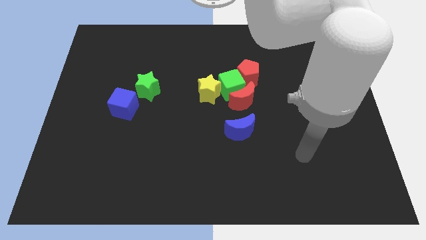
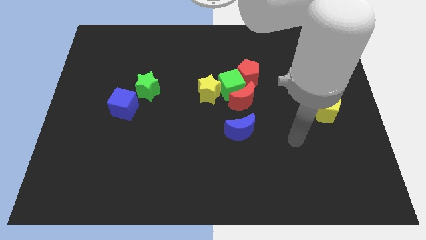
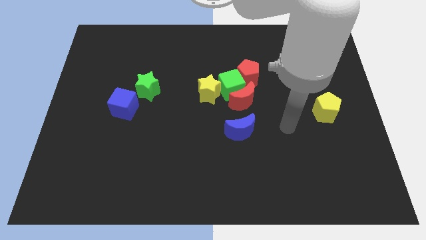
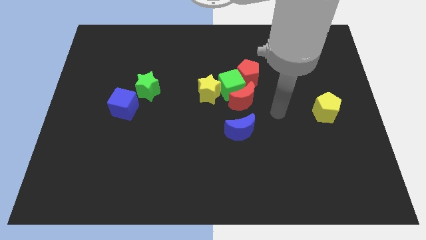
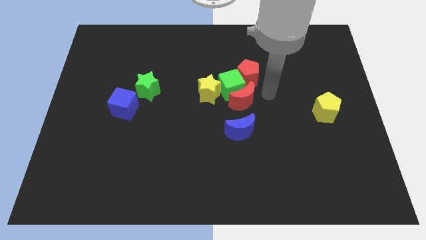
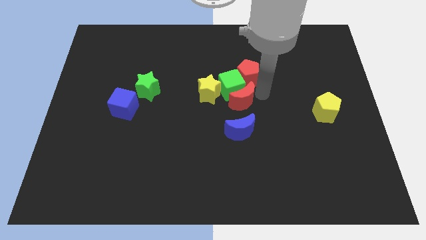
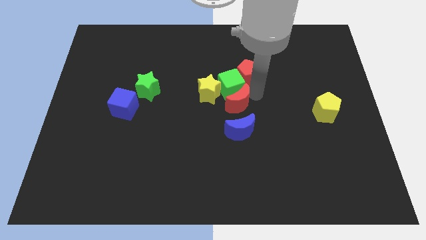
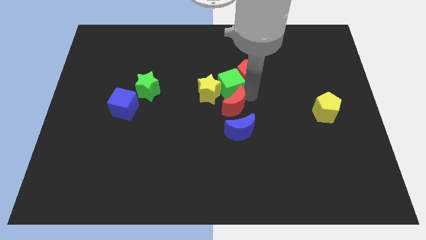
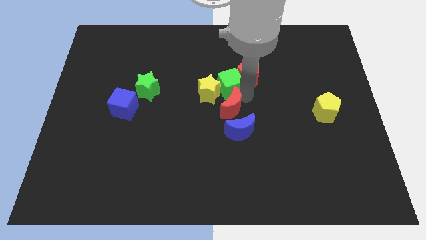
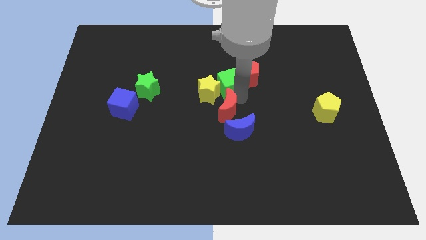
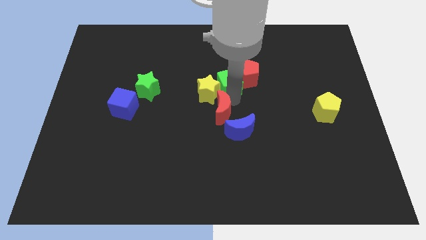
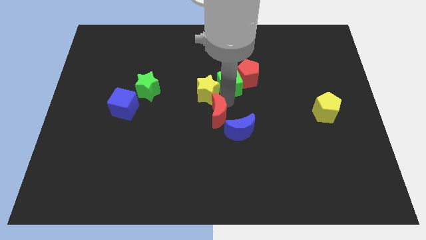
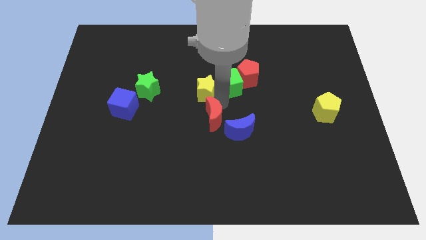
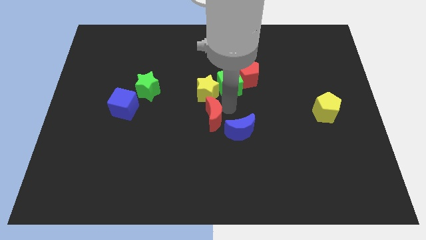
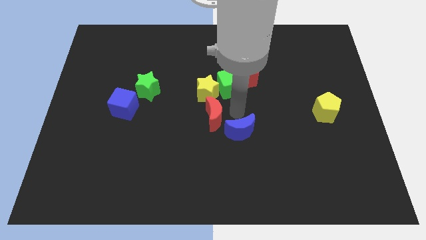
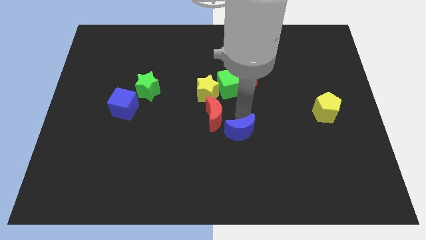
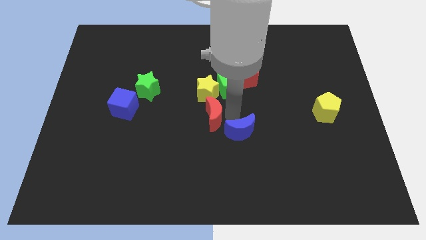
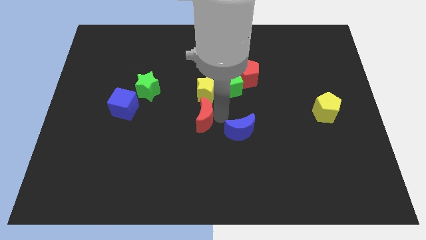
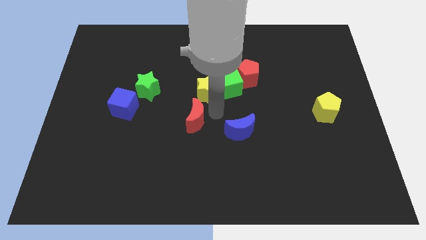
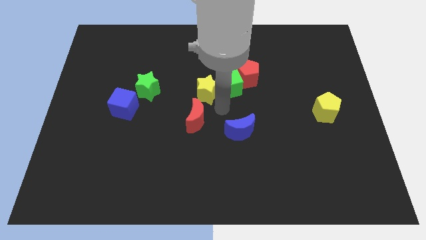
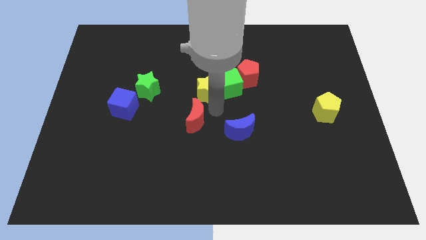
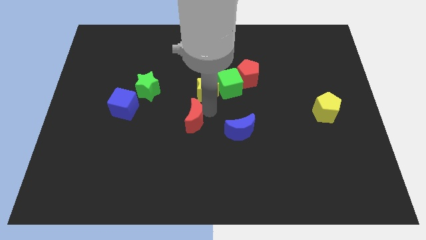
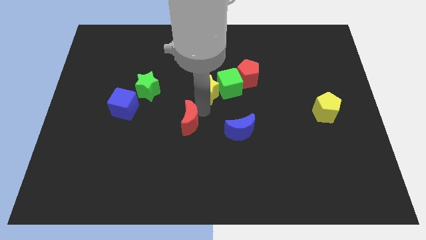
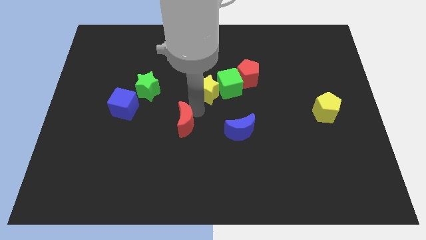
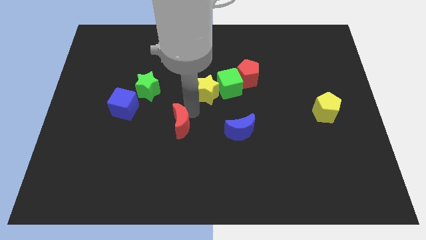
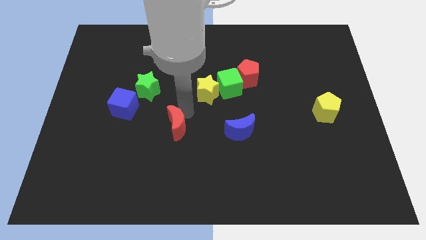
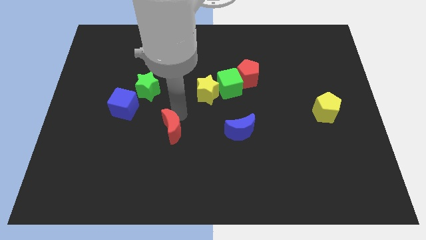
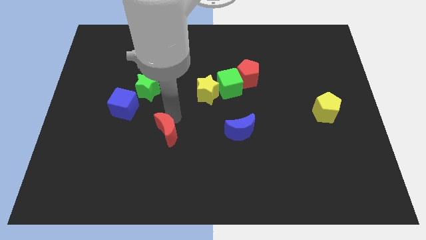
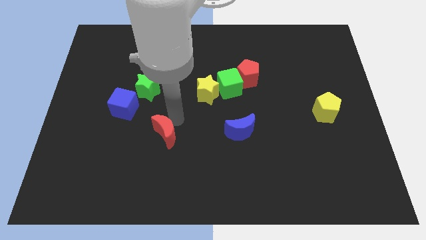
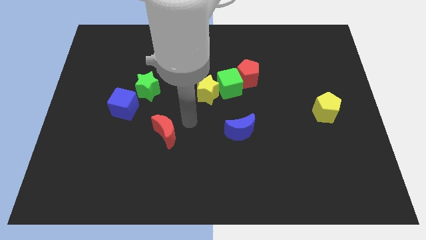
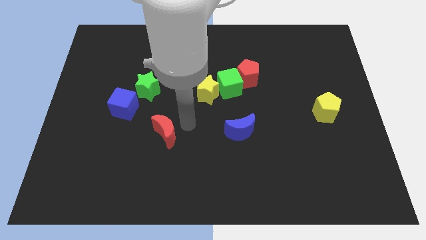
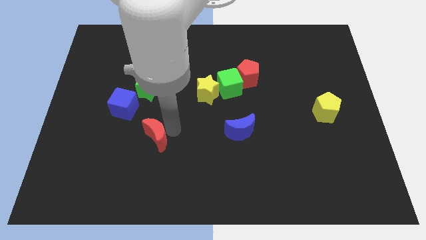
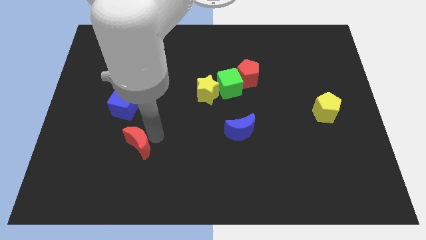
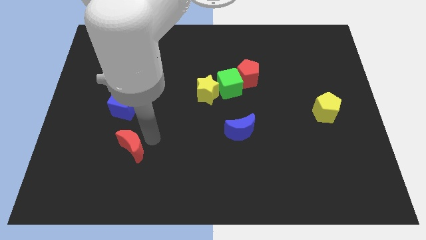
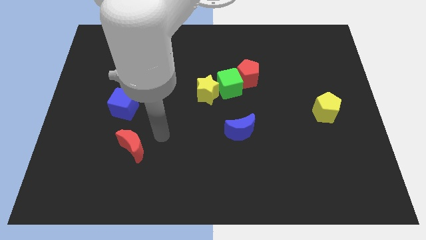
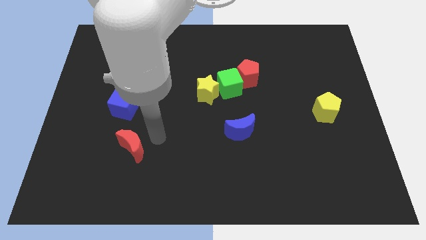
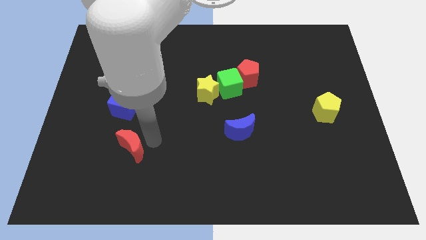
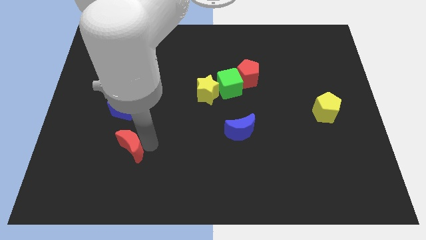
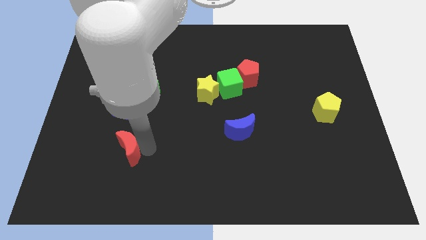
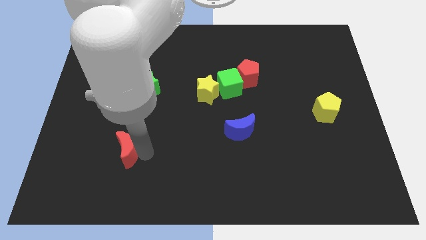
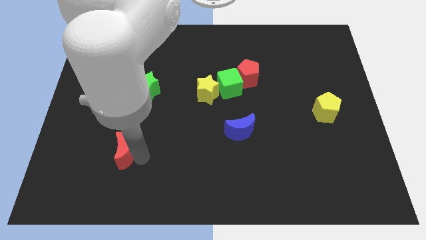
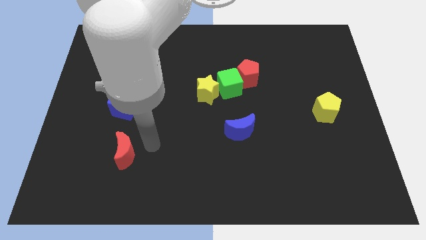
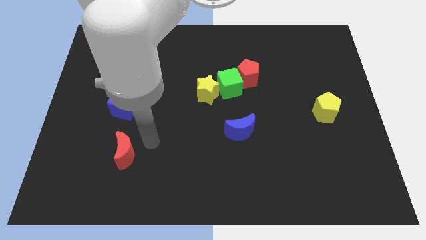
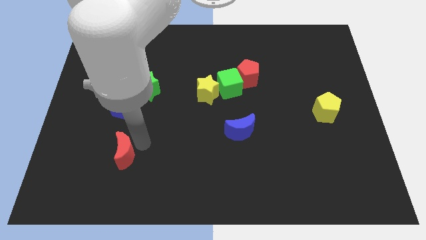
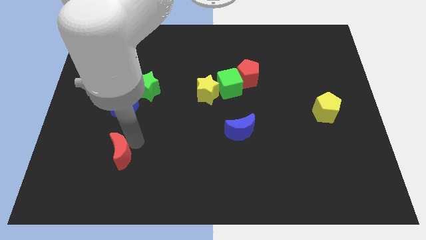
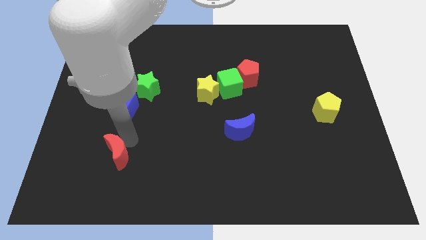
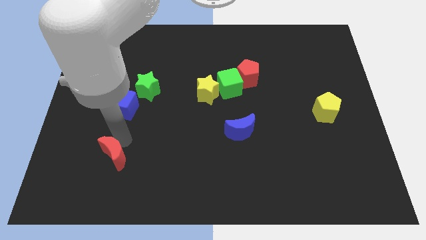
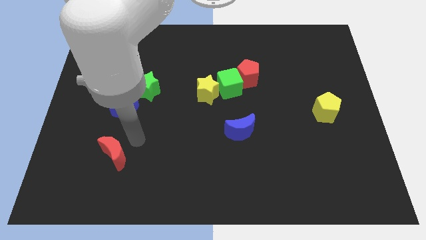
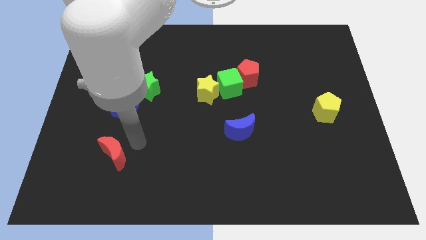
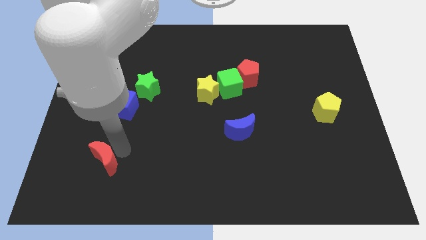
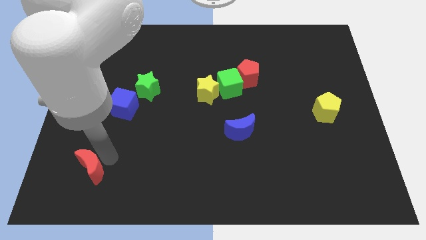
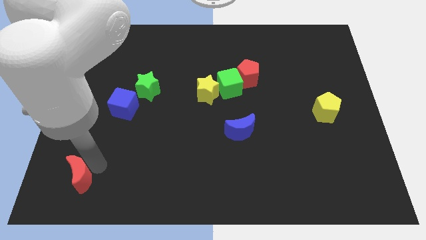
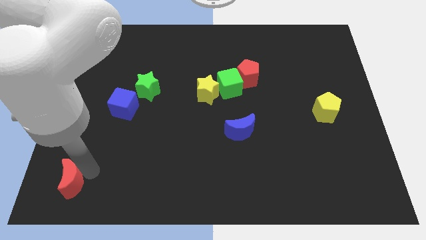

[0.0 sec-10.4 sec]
put the red moon to the lower left corner

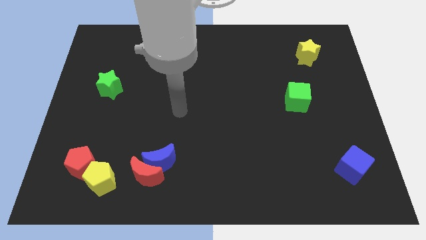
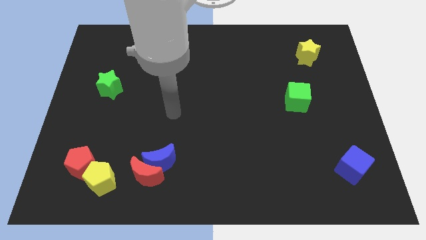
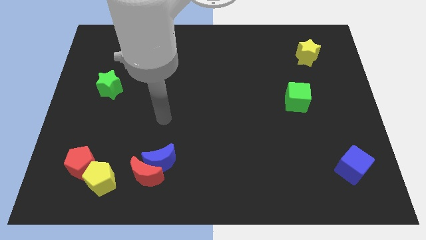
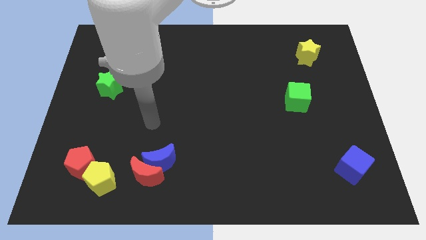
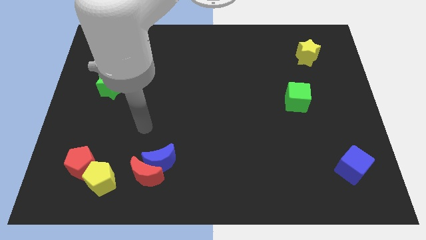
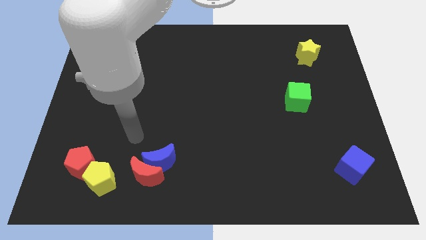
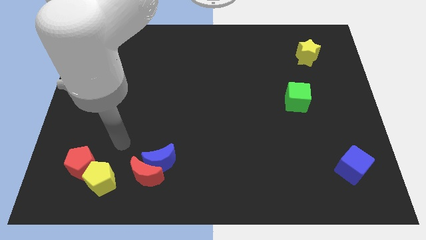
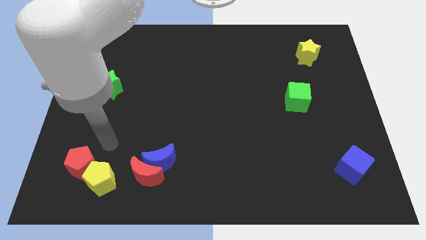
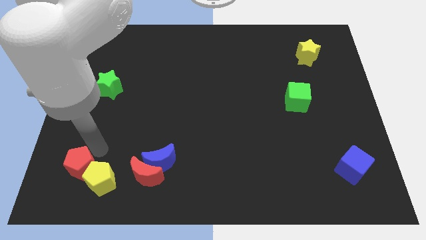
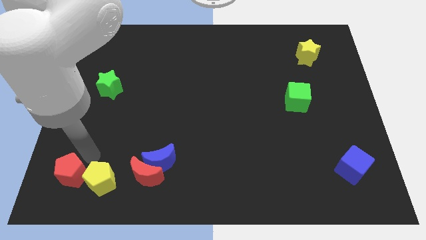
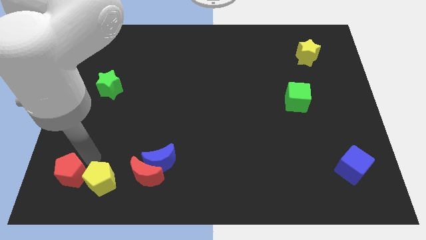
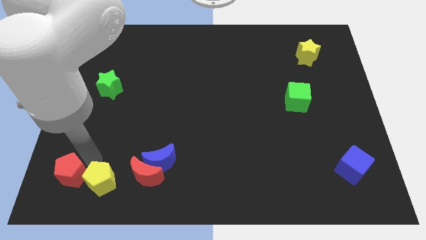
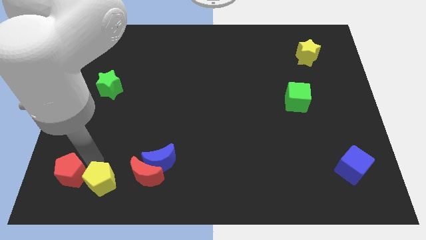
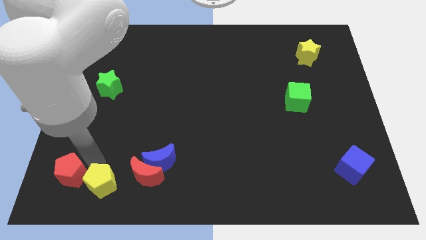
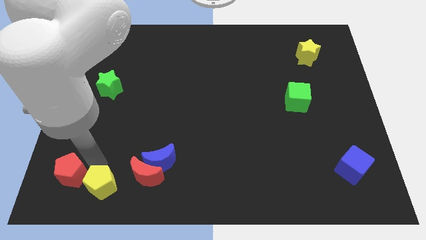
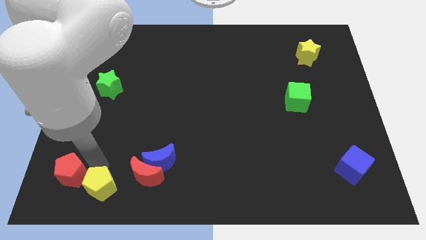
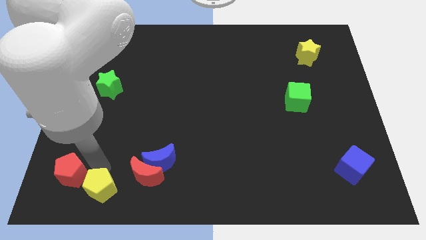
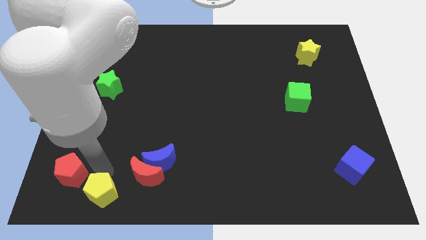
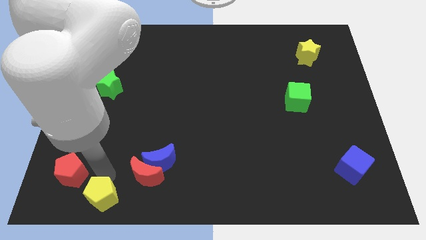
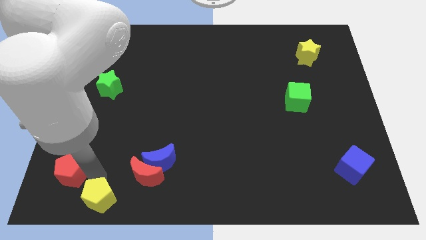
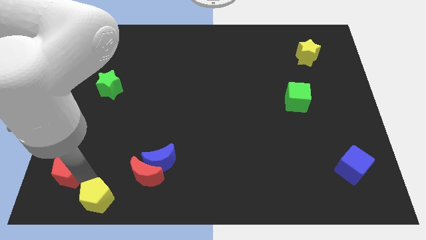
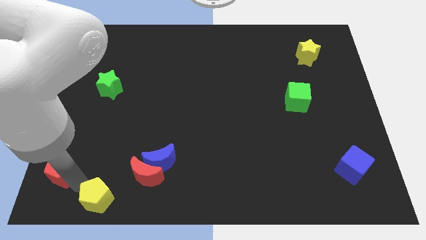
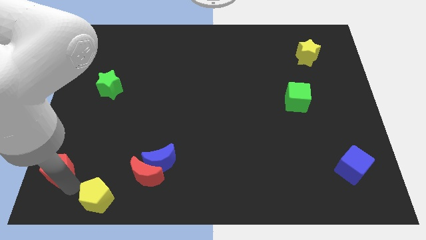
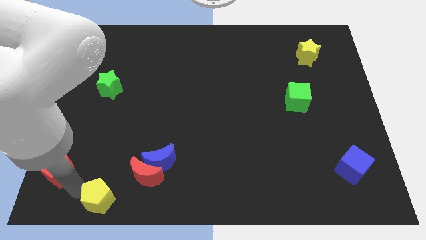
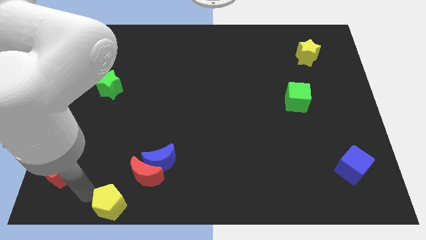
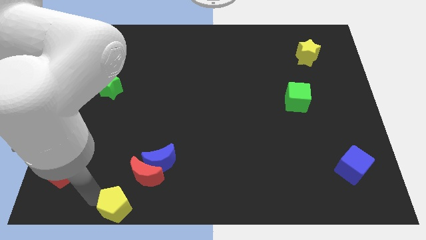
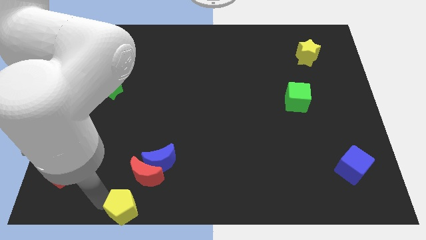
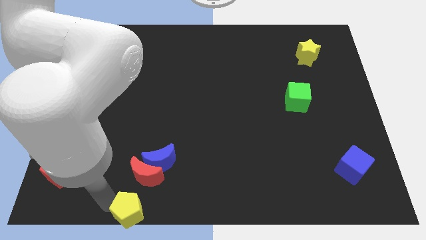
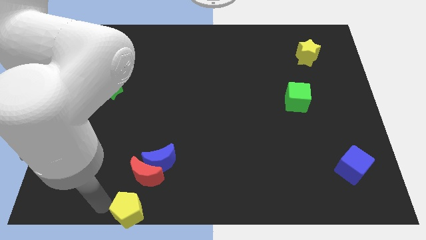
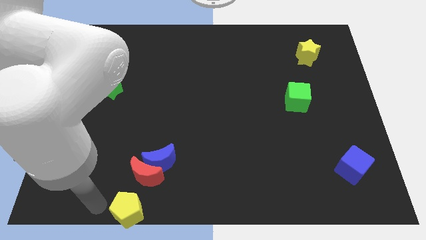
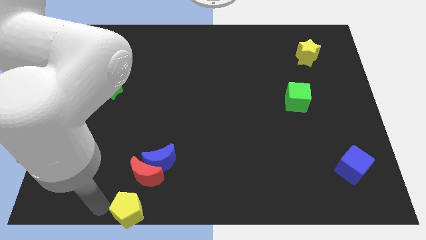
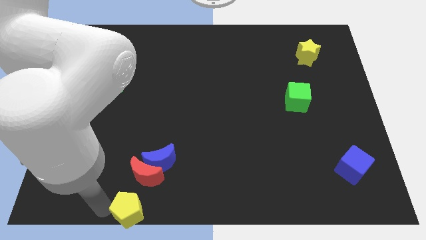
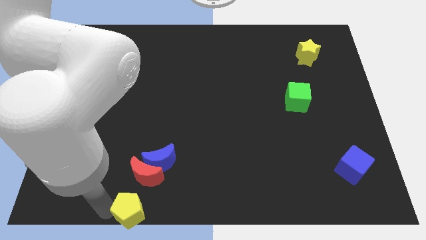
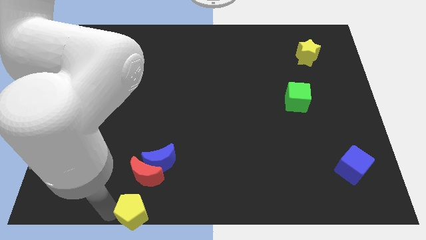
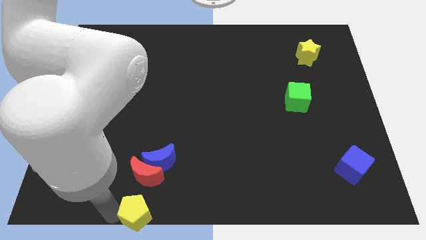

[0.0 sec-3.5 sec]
push the yellow pentagon to the bottom side
